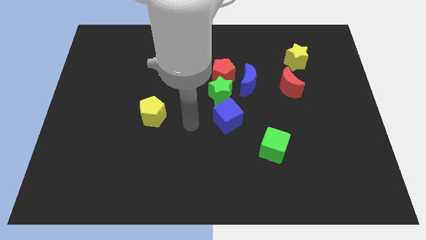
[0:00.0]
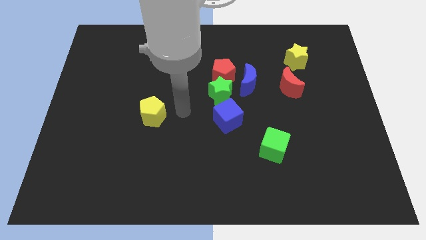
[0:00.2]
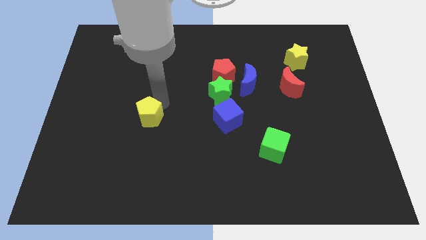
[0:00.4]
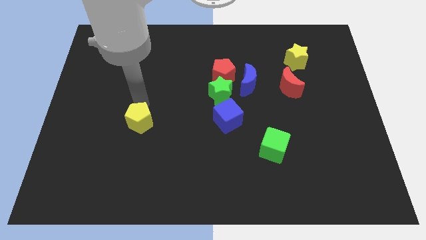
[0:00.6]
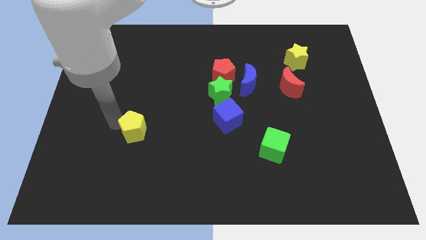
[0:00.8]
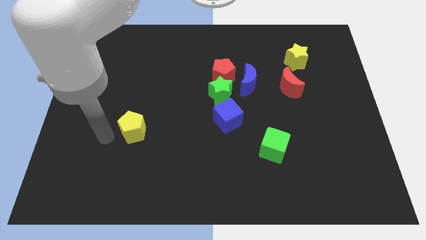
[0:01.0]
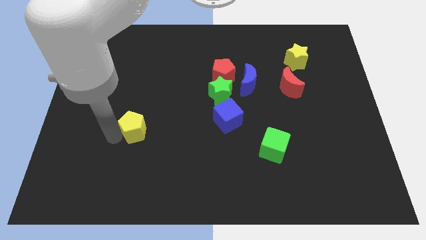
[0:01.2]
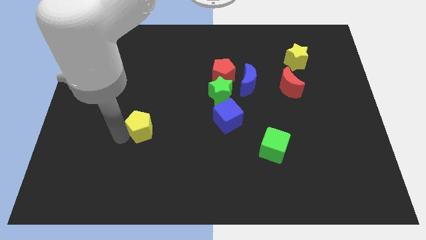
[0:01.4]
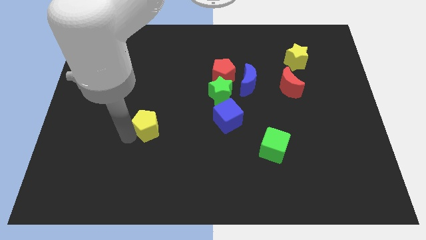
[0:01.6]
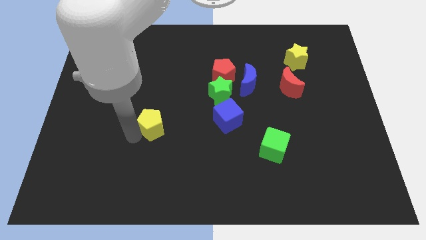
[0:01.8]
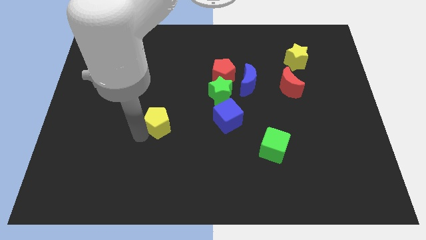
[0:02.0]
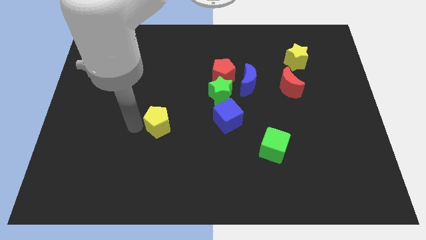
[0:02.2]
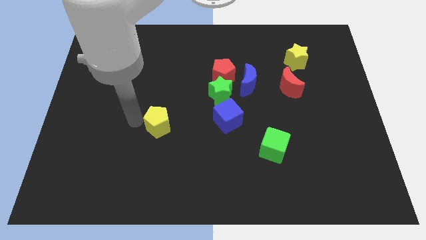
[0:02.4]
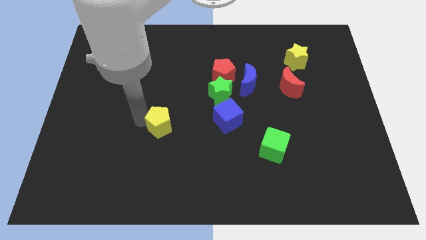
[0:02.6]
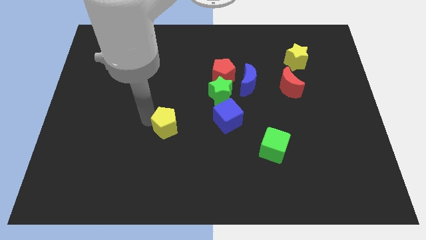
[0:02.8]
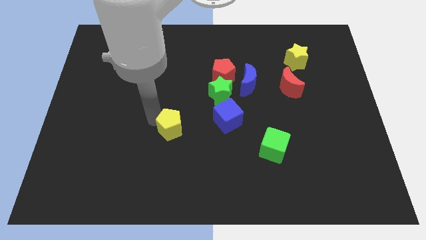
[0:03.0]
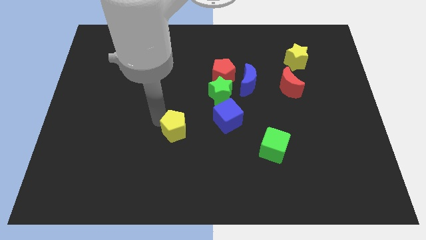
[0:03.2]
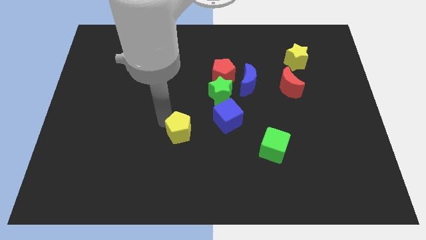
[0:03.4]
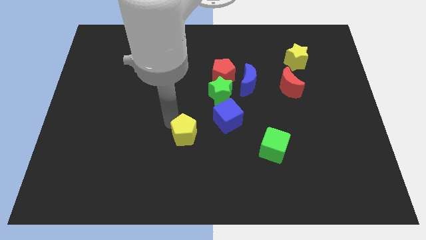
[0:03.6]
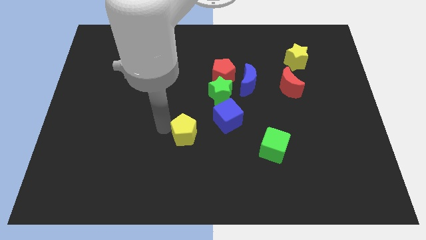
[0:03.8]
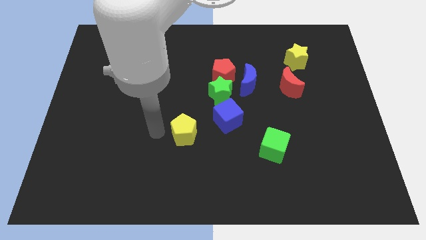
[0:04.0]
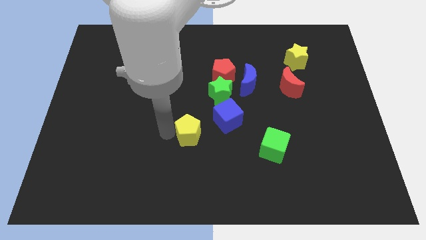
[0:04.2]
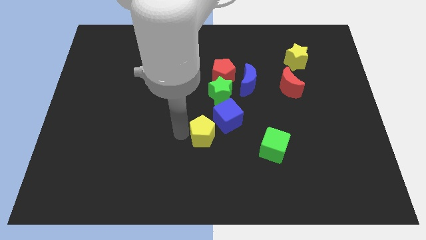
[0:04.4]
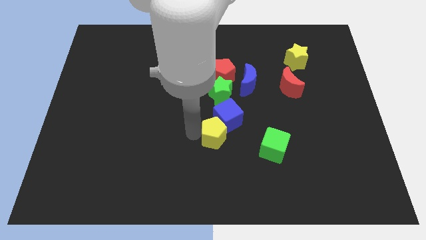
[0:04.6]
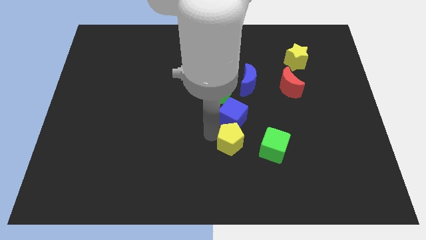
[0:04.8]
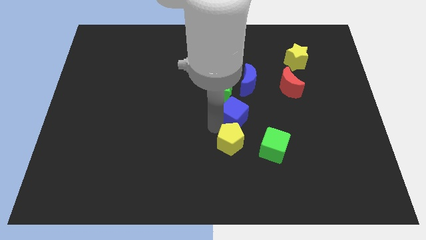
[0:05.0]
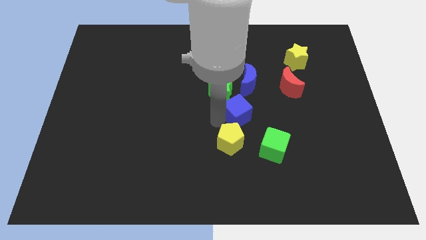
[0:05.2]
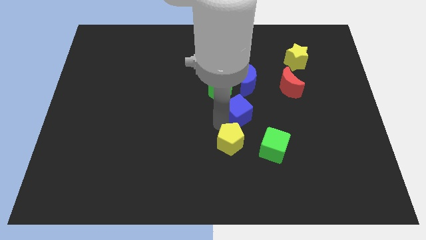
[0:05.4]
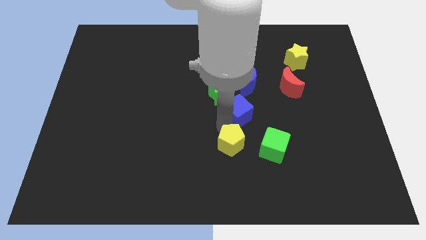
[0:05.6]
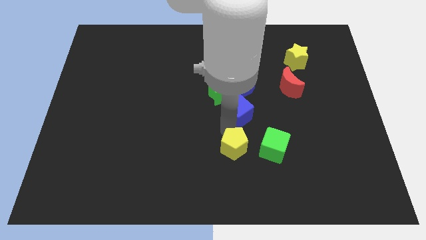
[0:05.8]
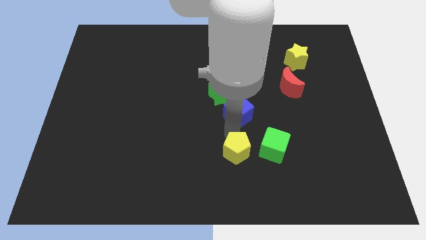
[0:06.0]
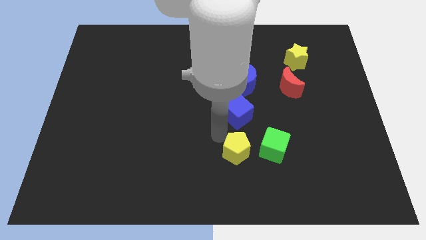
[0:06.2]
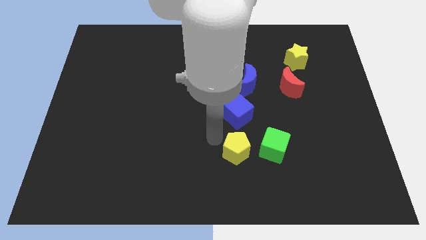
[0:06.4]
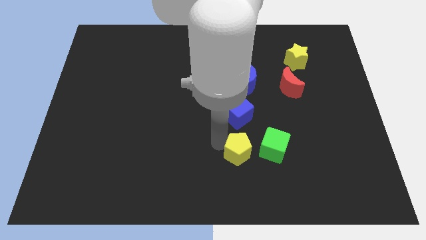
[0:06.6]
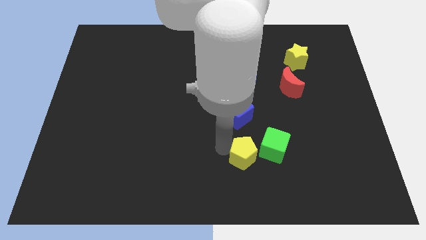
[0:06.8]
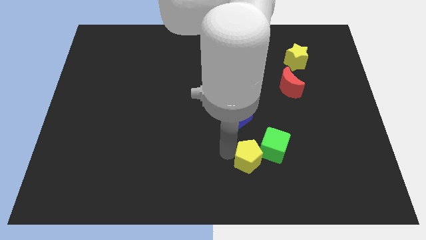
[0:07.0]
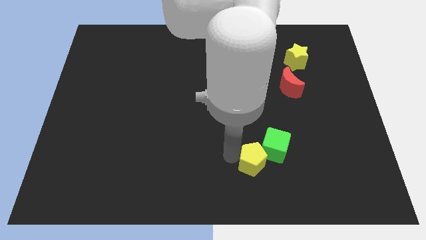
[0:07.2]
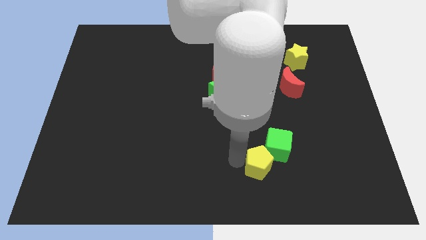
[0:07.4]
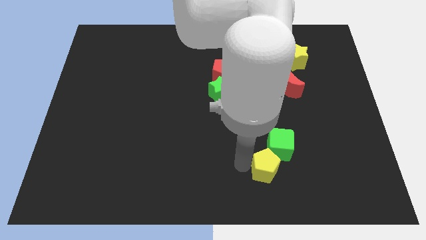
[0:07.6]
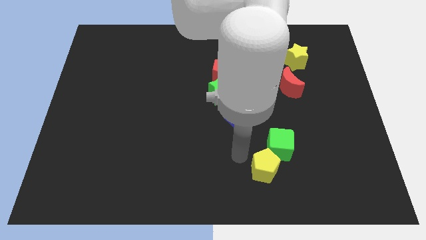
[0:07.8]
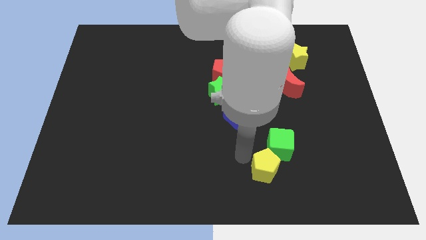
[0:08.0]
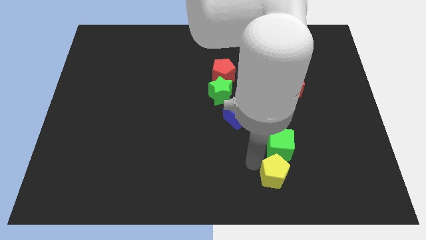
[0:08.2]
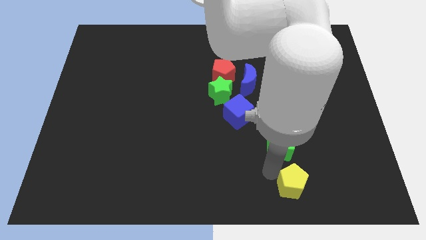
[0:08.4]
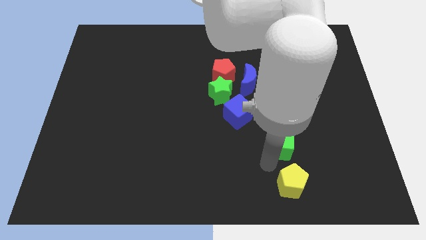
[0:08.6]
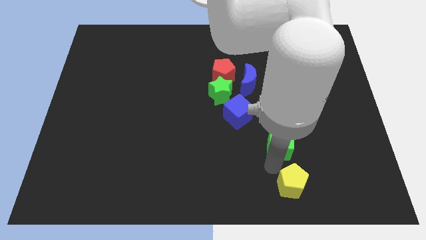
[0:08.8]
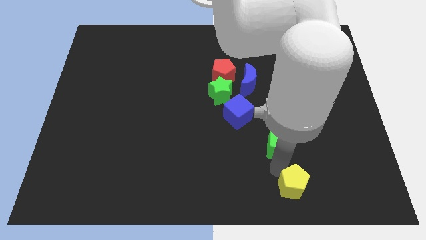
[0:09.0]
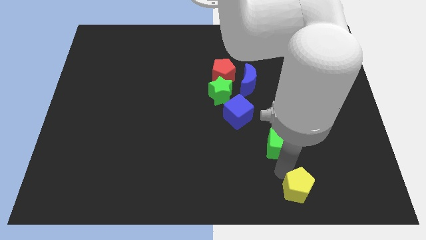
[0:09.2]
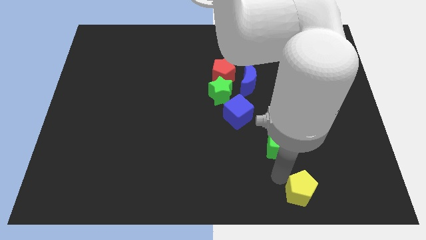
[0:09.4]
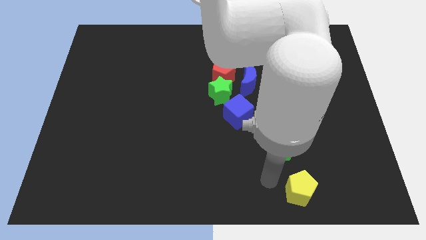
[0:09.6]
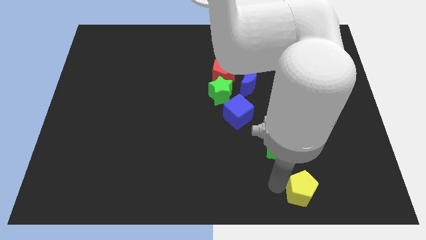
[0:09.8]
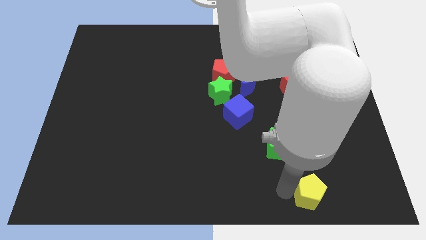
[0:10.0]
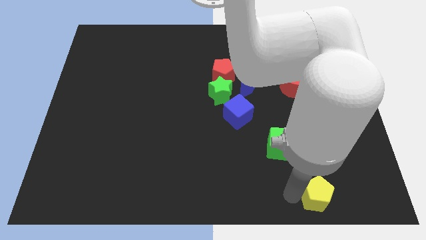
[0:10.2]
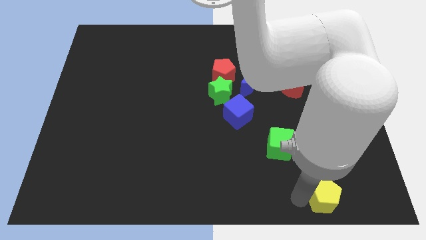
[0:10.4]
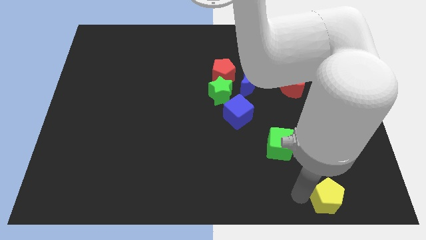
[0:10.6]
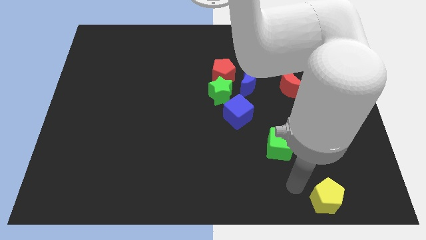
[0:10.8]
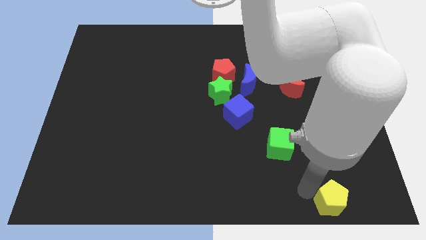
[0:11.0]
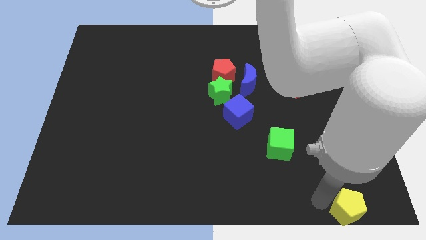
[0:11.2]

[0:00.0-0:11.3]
push the yellow pentagon to the bottom right of the board

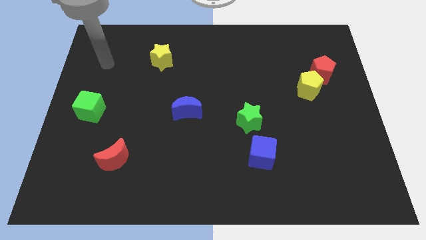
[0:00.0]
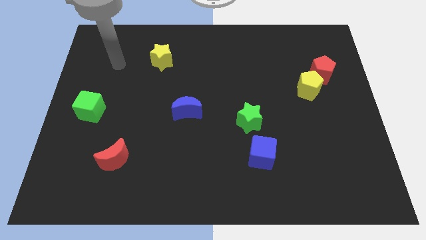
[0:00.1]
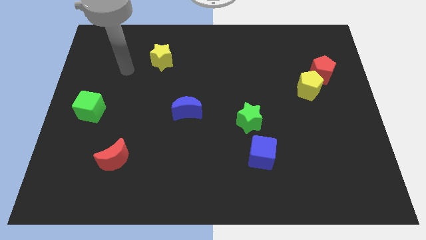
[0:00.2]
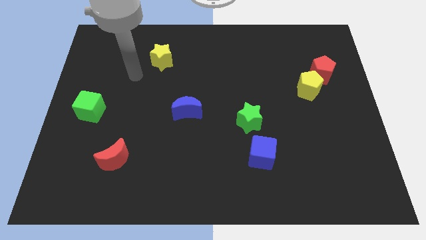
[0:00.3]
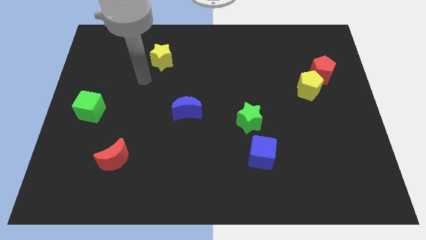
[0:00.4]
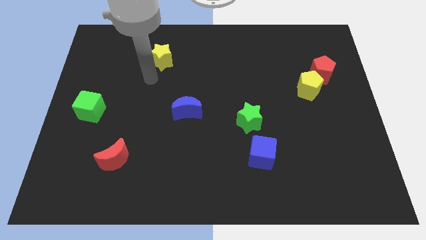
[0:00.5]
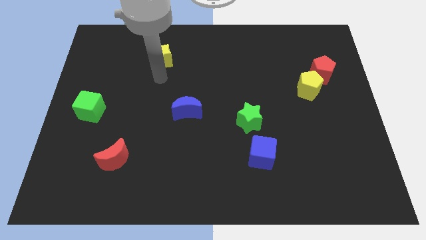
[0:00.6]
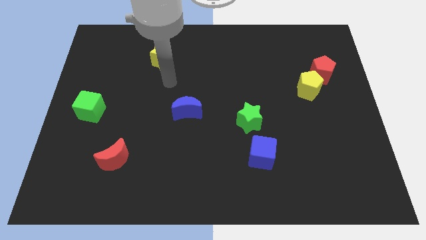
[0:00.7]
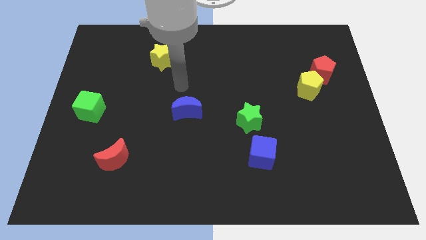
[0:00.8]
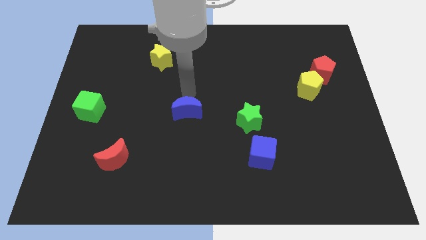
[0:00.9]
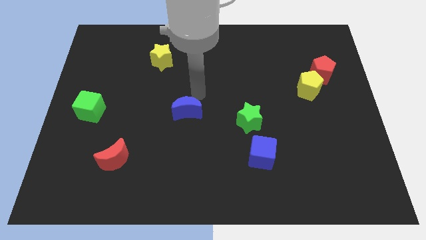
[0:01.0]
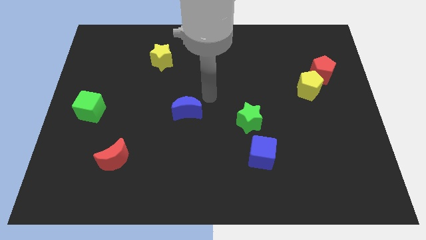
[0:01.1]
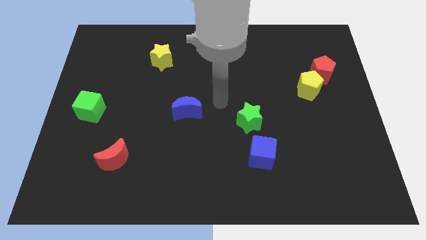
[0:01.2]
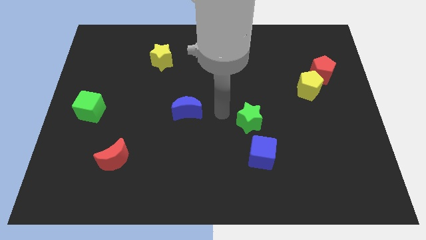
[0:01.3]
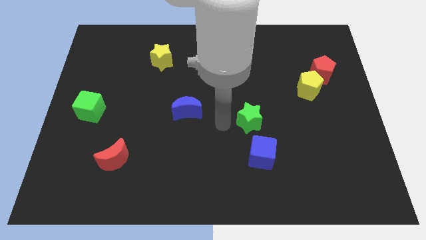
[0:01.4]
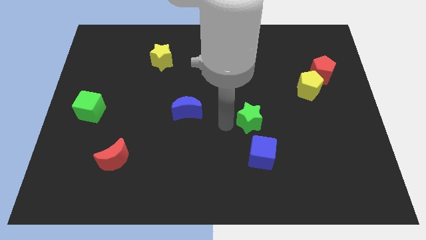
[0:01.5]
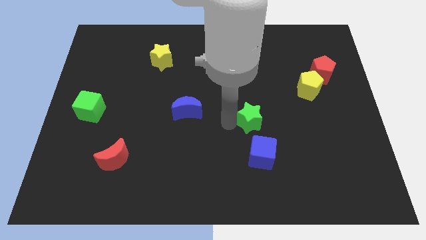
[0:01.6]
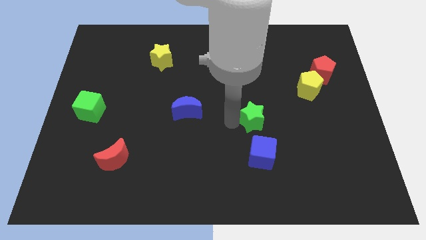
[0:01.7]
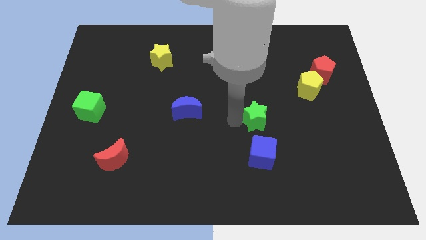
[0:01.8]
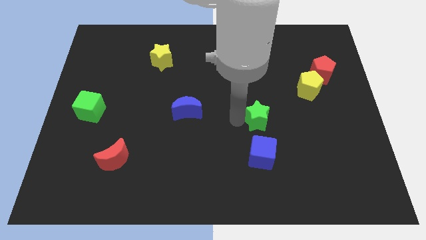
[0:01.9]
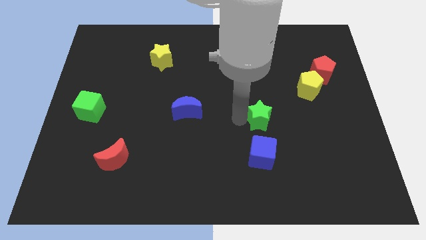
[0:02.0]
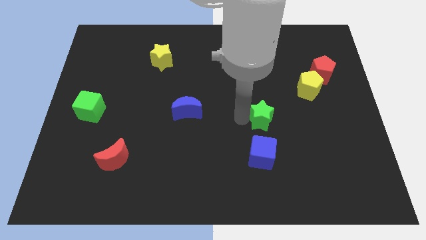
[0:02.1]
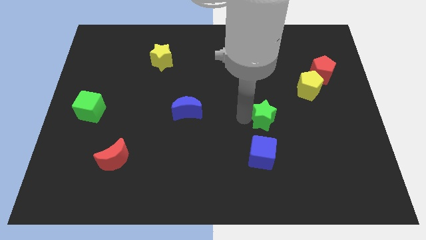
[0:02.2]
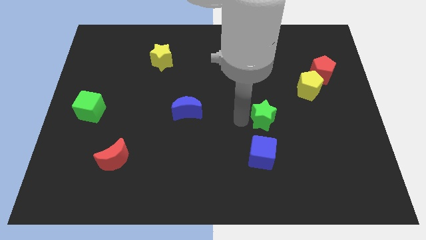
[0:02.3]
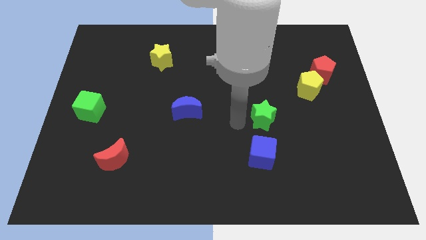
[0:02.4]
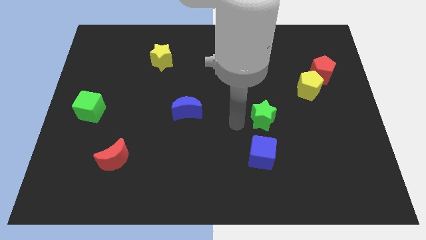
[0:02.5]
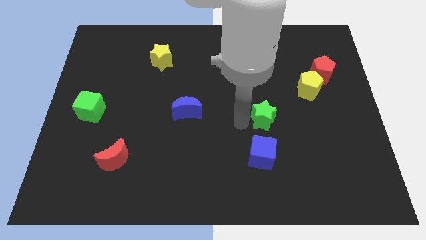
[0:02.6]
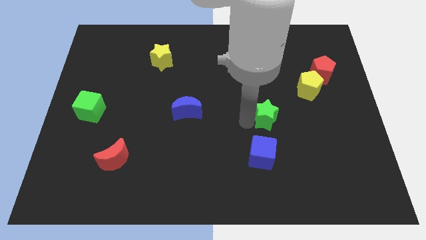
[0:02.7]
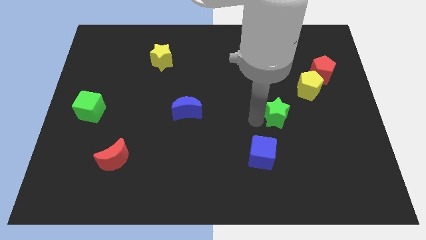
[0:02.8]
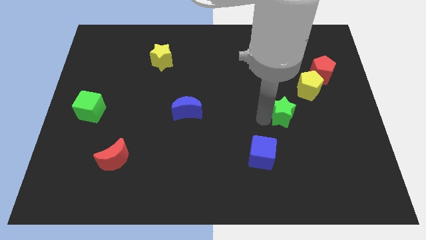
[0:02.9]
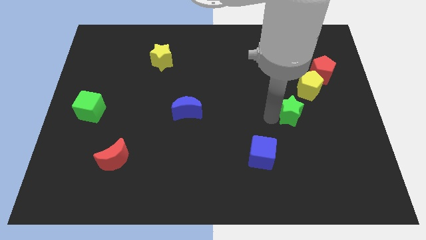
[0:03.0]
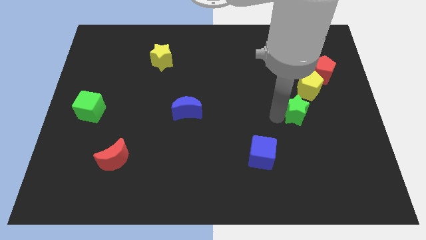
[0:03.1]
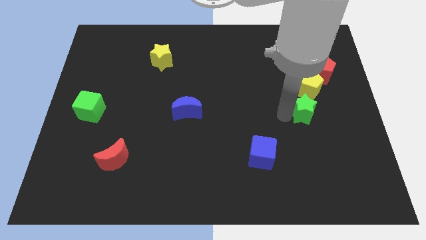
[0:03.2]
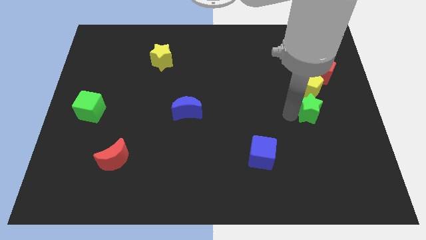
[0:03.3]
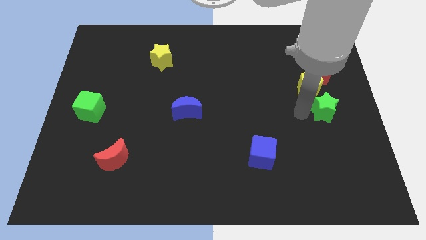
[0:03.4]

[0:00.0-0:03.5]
slide the green star to the right side of the board
